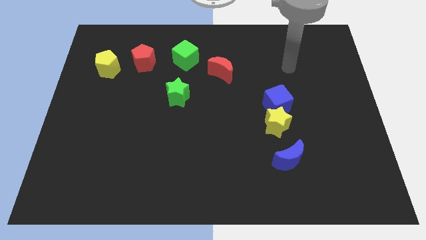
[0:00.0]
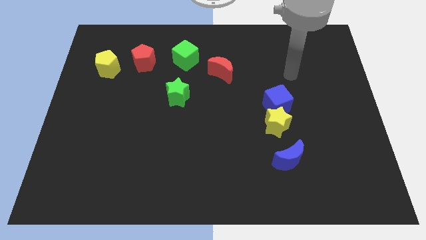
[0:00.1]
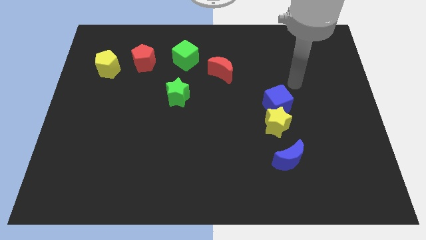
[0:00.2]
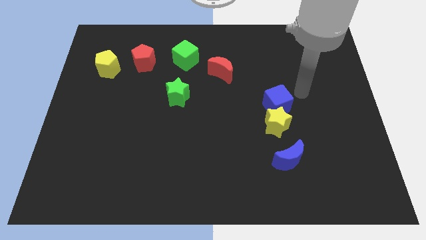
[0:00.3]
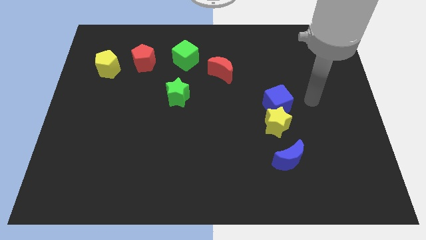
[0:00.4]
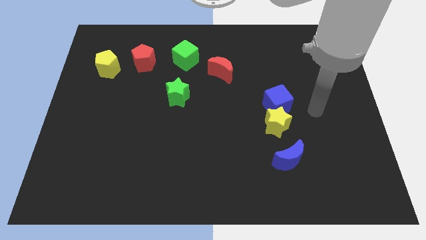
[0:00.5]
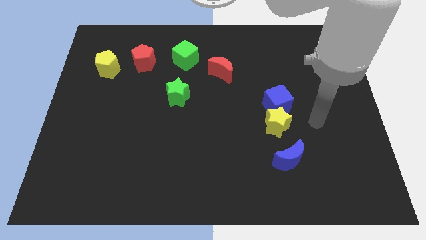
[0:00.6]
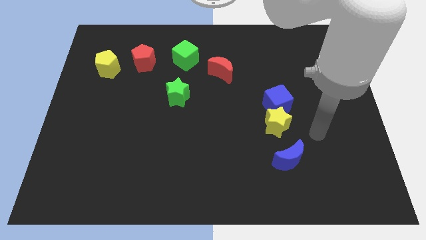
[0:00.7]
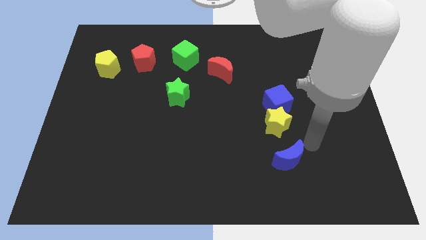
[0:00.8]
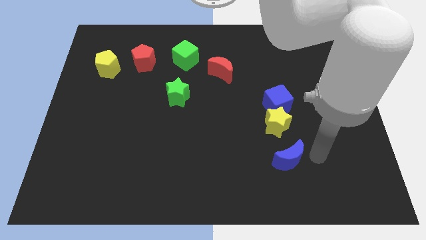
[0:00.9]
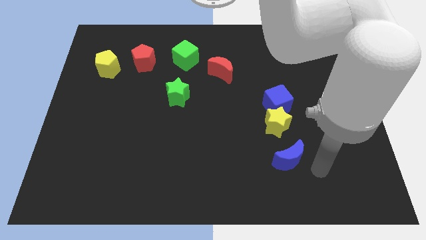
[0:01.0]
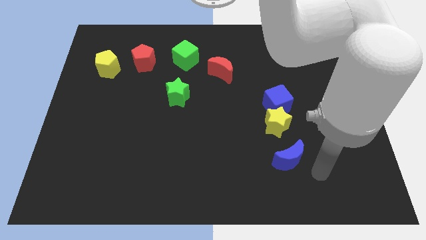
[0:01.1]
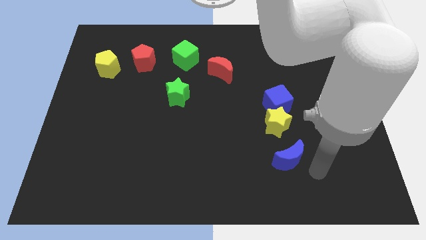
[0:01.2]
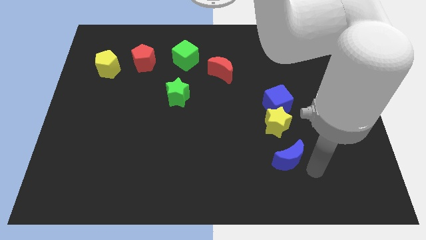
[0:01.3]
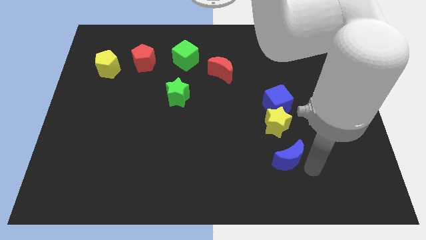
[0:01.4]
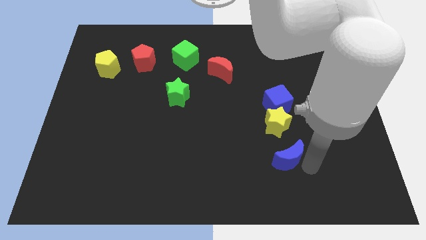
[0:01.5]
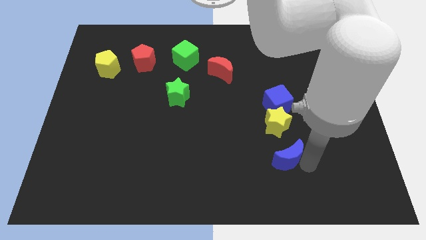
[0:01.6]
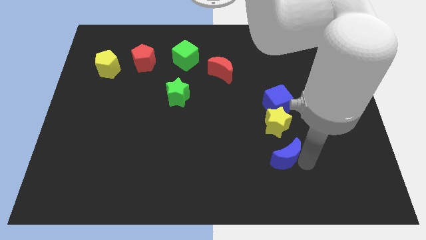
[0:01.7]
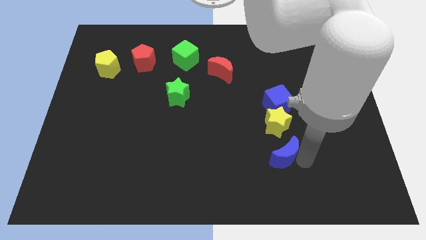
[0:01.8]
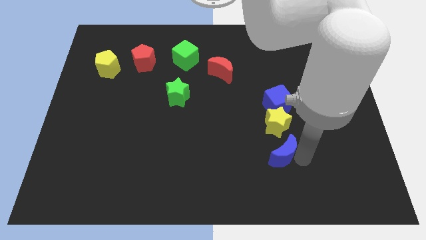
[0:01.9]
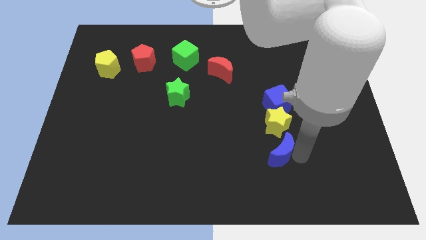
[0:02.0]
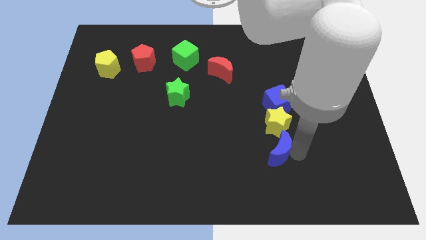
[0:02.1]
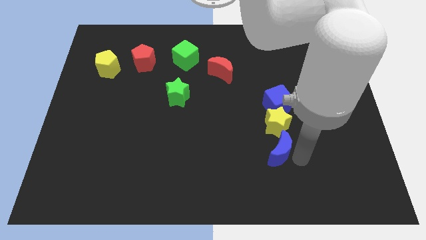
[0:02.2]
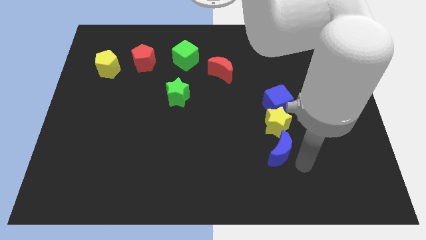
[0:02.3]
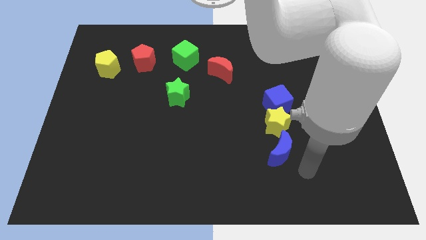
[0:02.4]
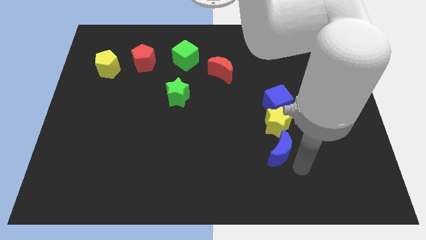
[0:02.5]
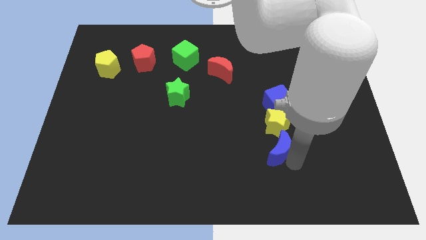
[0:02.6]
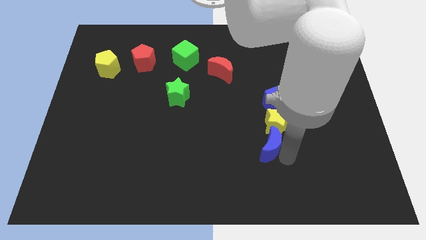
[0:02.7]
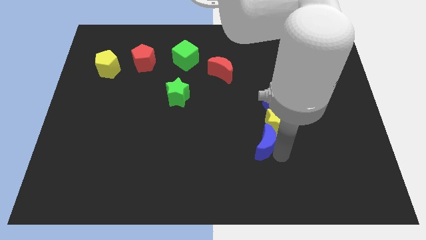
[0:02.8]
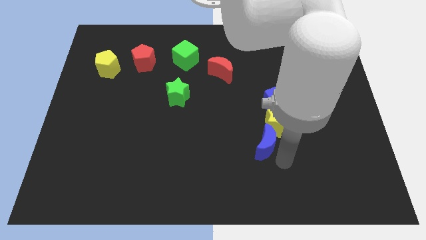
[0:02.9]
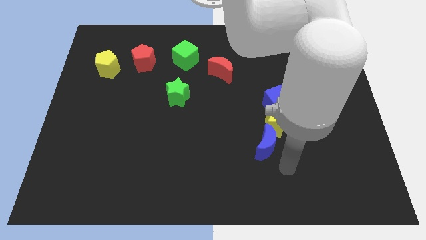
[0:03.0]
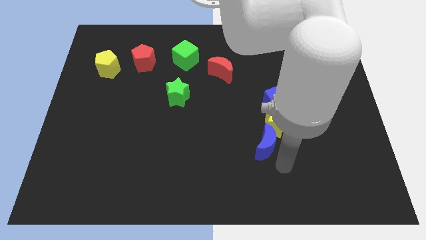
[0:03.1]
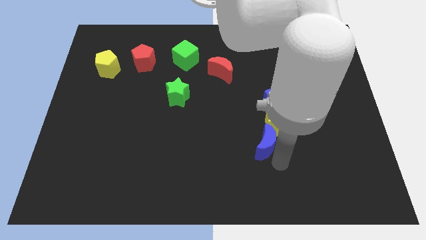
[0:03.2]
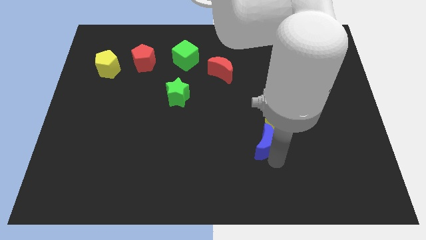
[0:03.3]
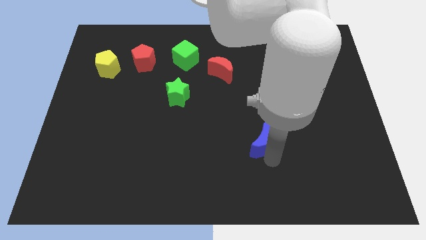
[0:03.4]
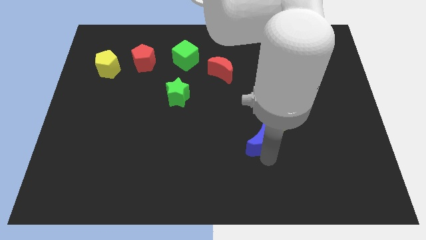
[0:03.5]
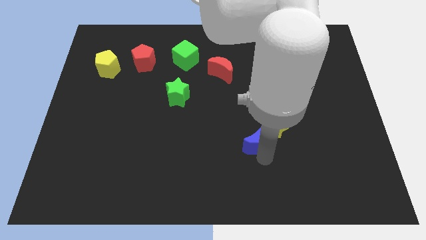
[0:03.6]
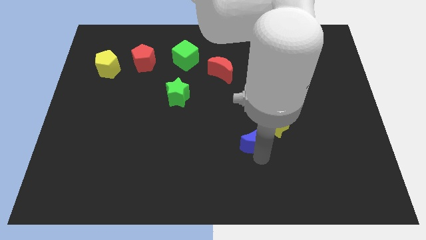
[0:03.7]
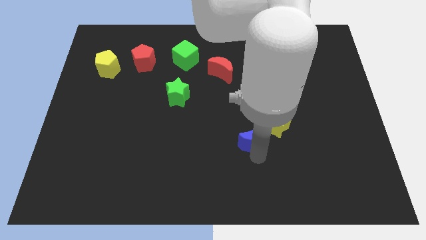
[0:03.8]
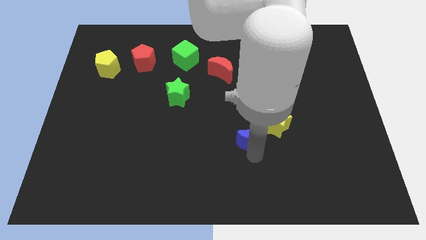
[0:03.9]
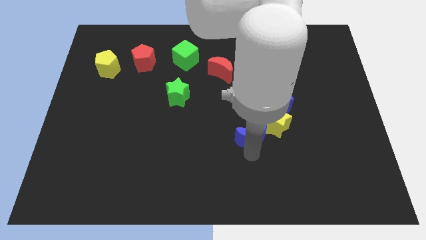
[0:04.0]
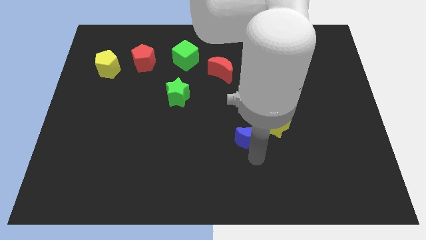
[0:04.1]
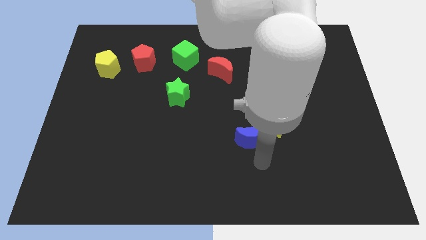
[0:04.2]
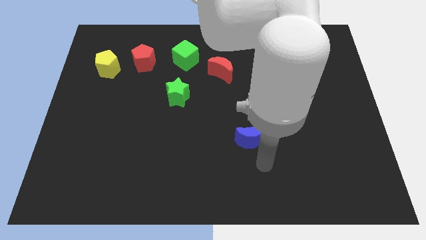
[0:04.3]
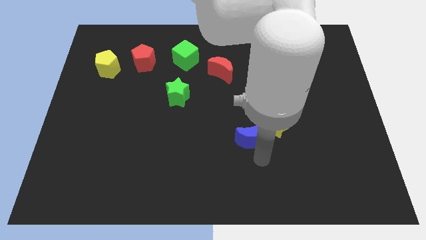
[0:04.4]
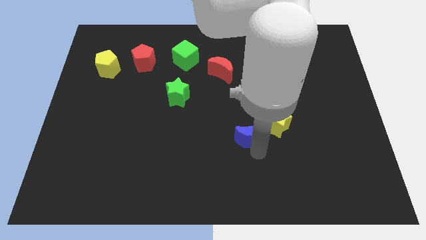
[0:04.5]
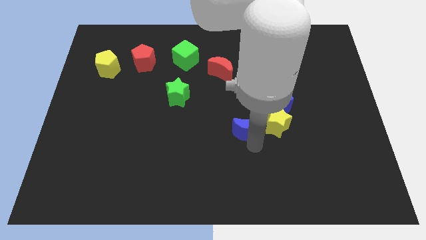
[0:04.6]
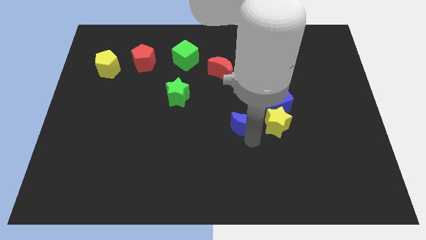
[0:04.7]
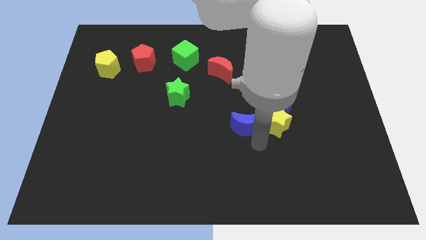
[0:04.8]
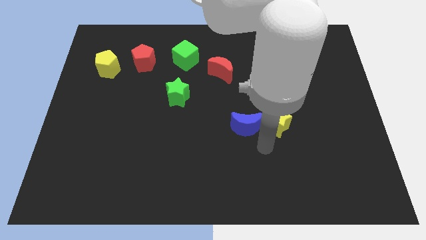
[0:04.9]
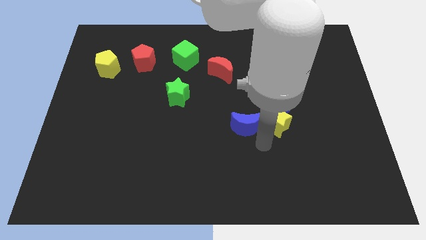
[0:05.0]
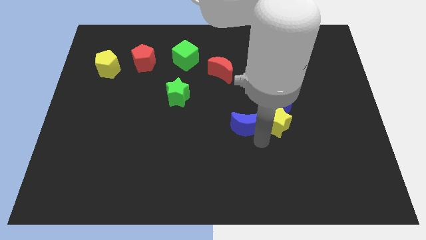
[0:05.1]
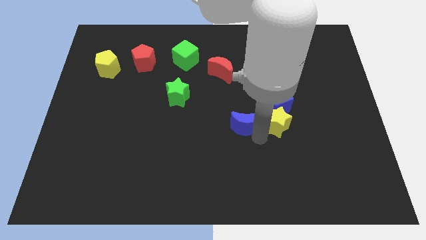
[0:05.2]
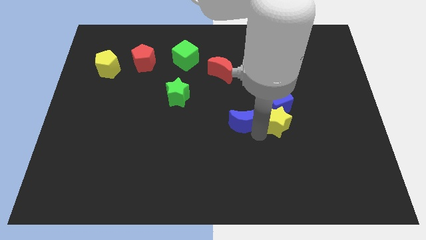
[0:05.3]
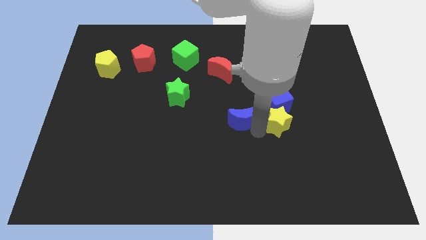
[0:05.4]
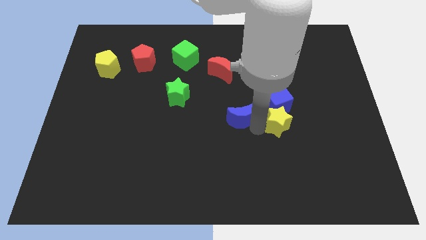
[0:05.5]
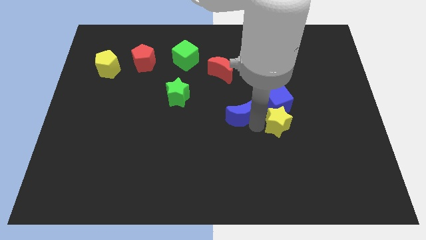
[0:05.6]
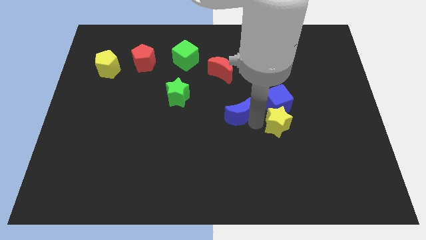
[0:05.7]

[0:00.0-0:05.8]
move the blue moon to the bottom of the red moon

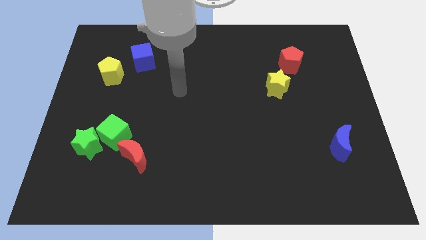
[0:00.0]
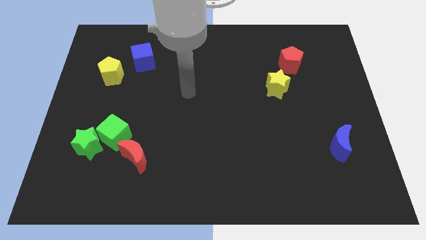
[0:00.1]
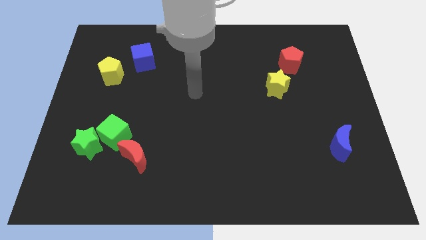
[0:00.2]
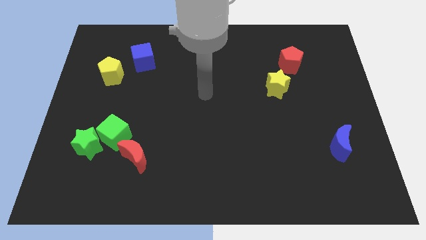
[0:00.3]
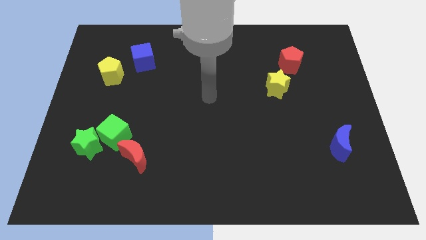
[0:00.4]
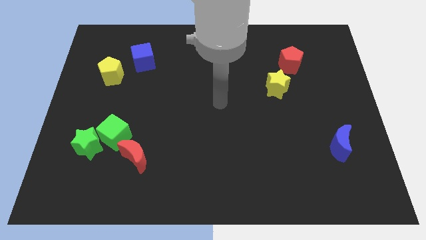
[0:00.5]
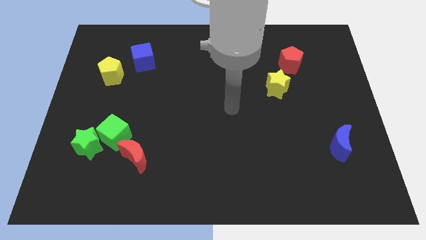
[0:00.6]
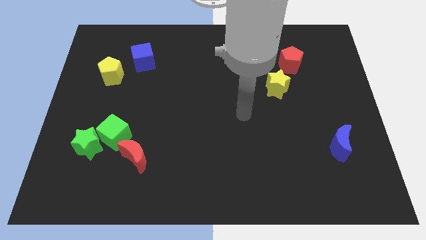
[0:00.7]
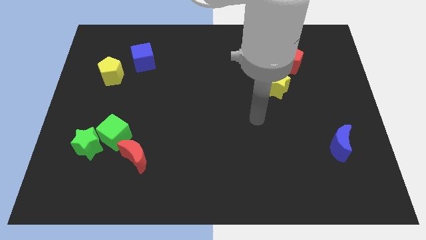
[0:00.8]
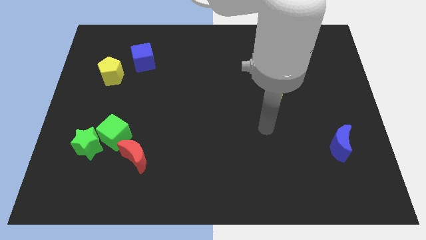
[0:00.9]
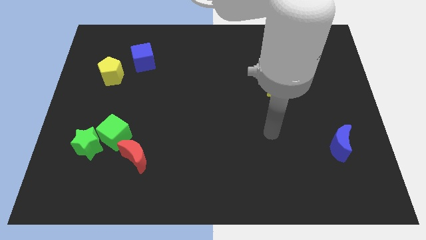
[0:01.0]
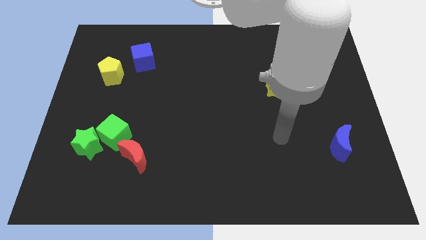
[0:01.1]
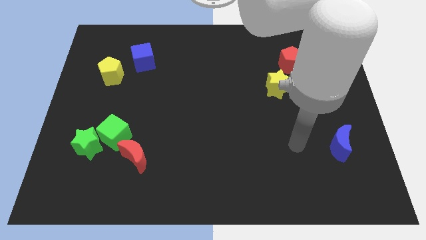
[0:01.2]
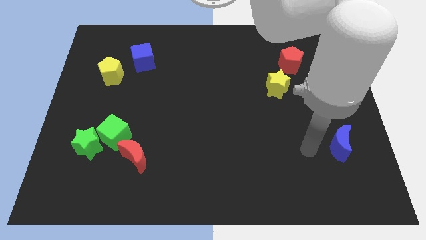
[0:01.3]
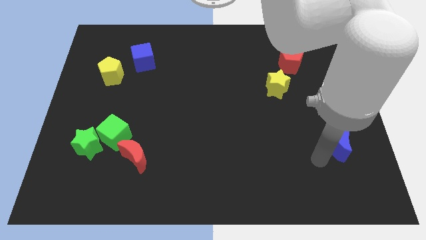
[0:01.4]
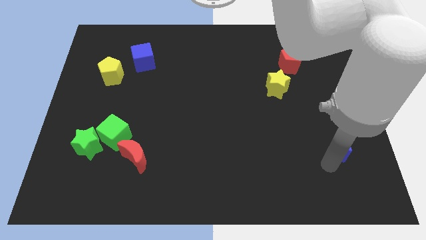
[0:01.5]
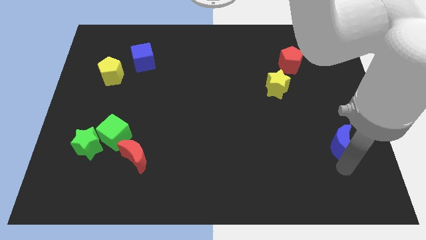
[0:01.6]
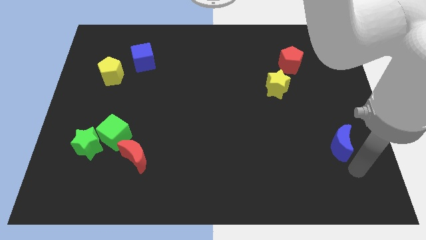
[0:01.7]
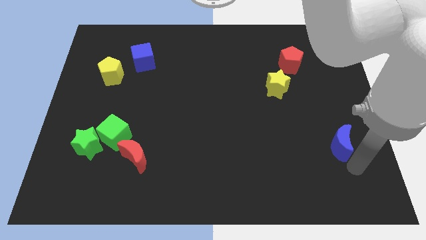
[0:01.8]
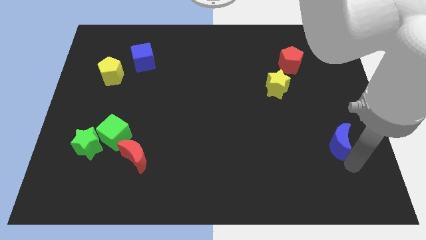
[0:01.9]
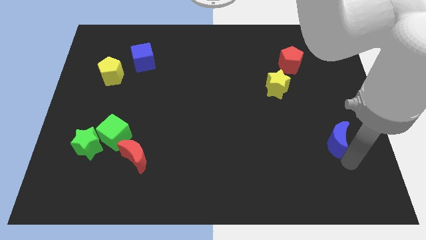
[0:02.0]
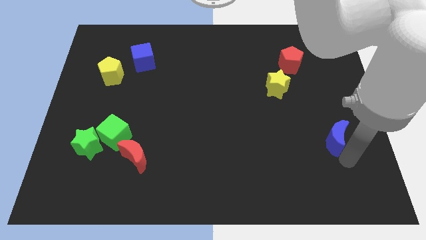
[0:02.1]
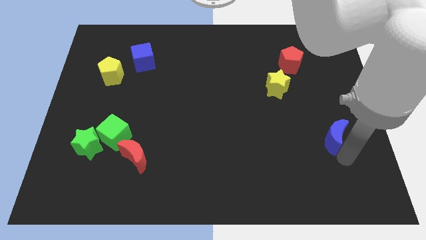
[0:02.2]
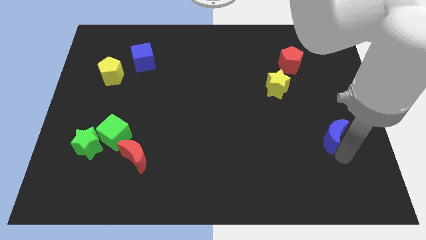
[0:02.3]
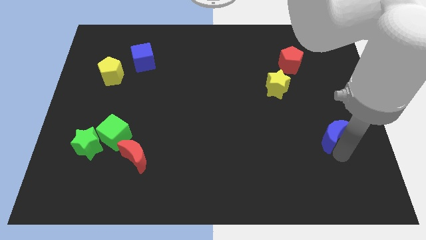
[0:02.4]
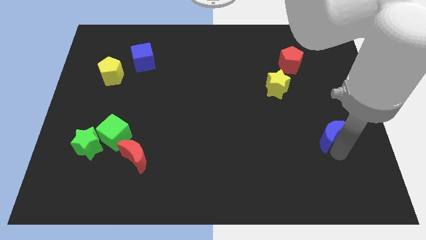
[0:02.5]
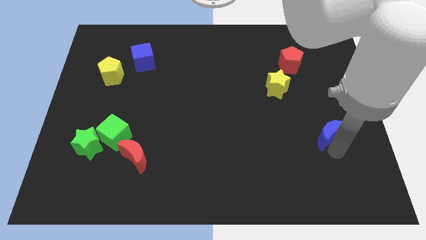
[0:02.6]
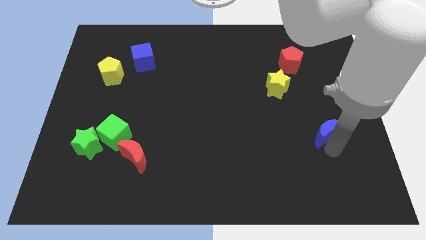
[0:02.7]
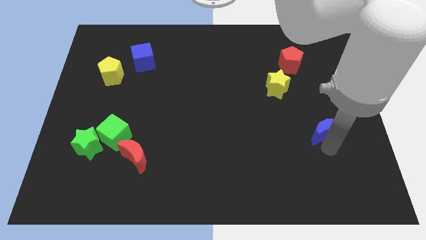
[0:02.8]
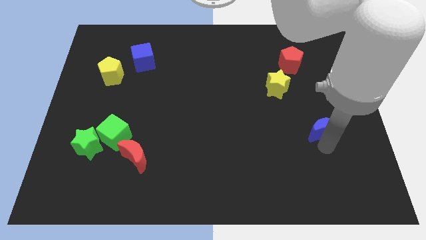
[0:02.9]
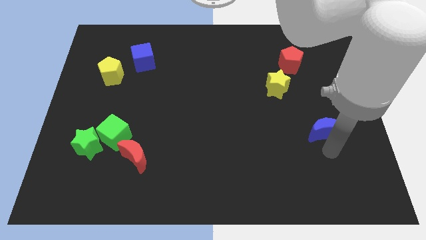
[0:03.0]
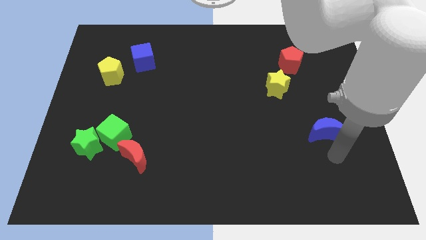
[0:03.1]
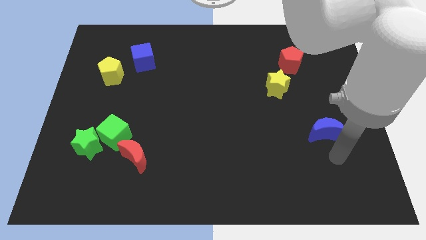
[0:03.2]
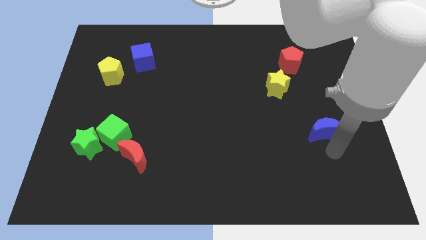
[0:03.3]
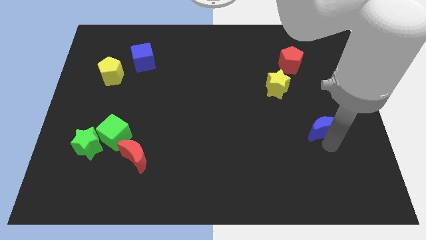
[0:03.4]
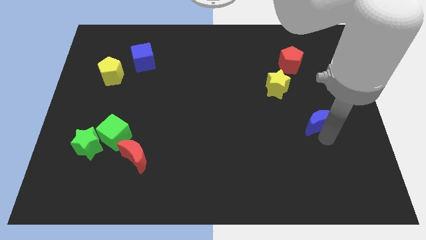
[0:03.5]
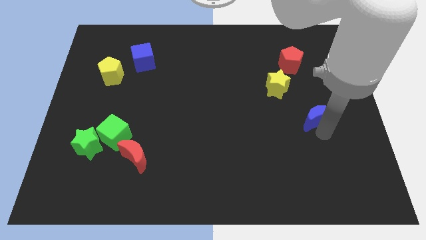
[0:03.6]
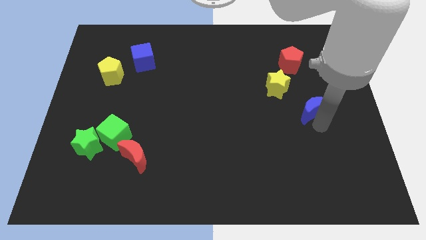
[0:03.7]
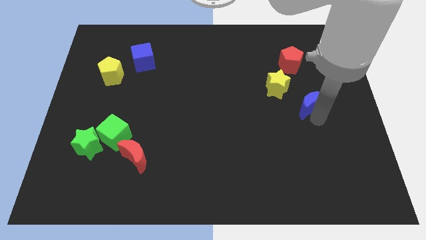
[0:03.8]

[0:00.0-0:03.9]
move the blue moon to the bottom side of the red pentagon
